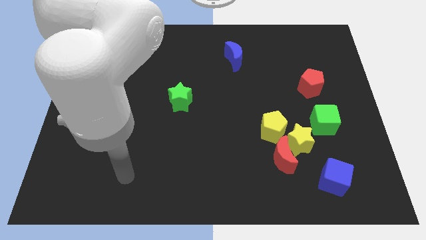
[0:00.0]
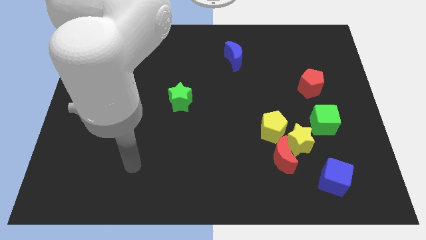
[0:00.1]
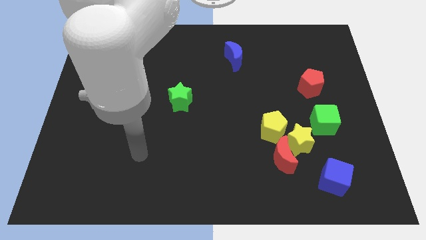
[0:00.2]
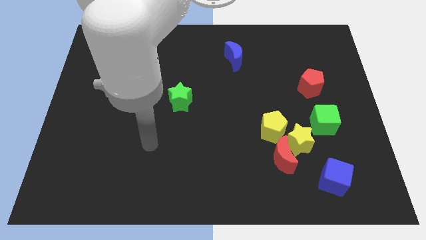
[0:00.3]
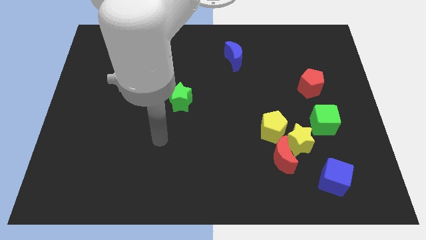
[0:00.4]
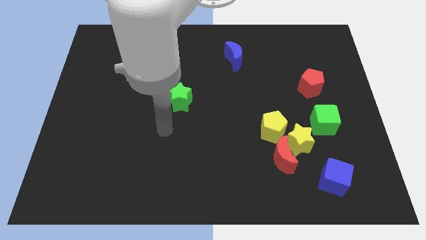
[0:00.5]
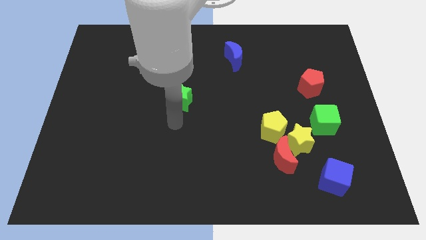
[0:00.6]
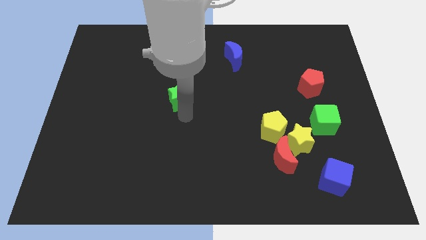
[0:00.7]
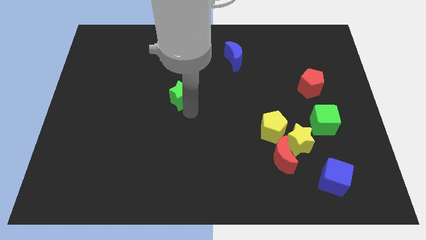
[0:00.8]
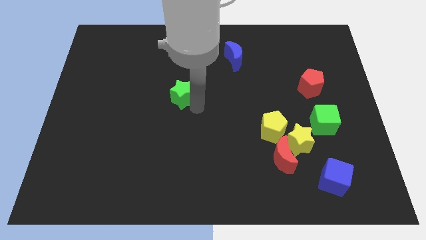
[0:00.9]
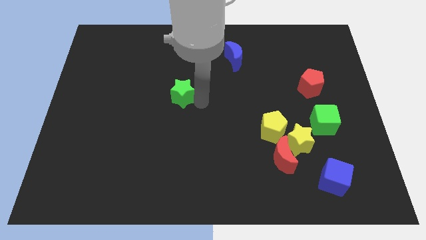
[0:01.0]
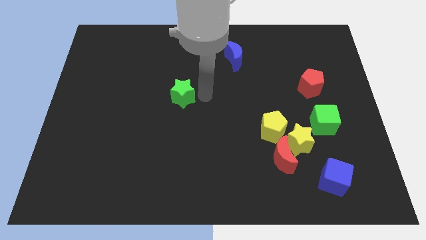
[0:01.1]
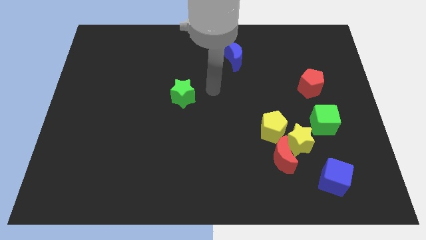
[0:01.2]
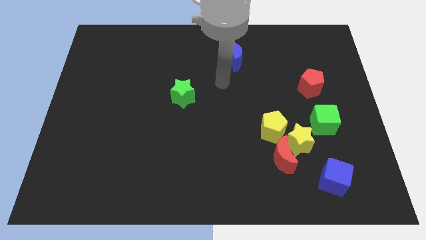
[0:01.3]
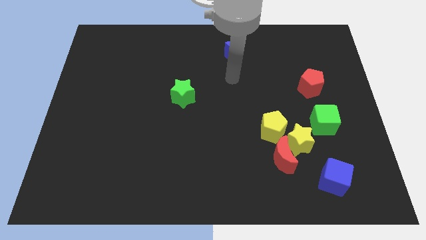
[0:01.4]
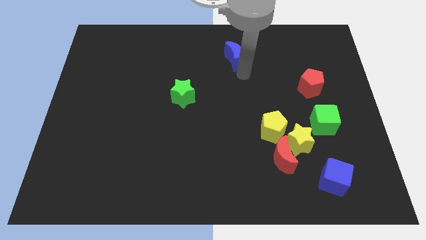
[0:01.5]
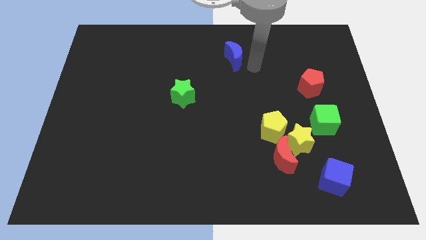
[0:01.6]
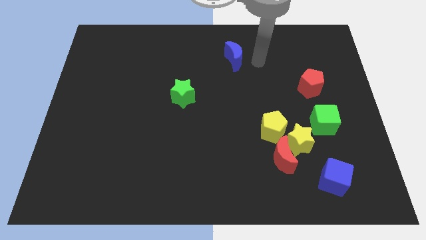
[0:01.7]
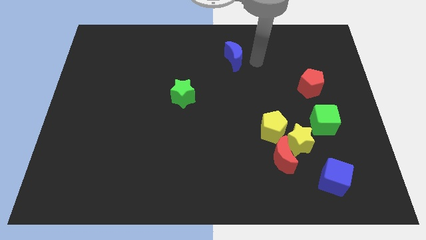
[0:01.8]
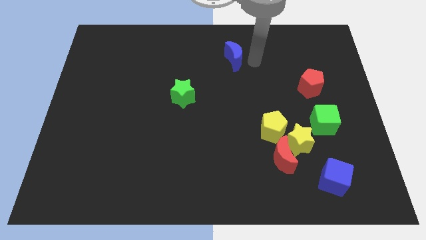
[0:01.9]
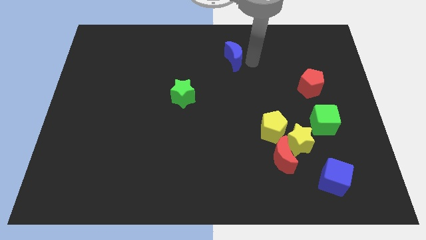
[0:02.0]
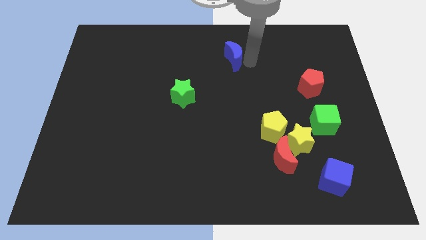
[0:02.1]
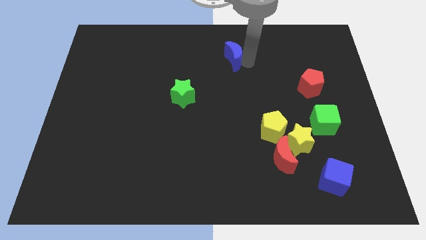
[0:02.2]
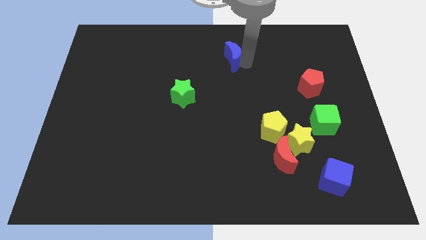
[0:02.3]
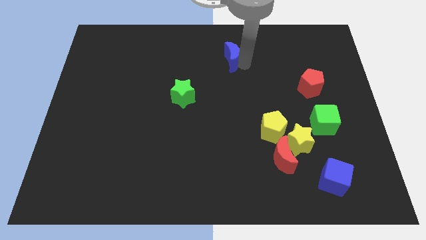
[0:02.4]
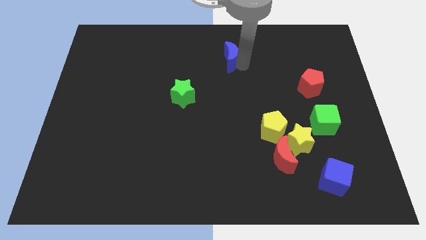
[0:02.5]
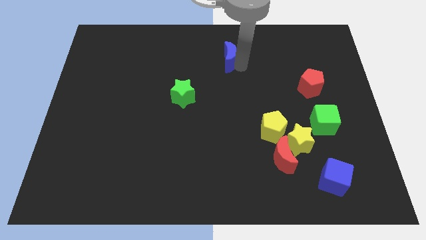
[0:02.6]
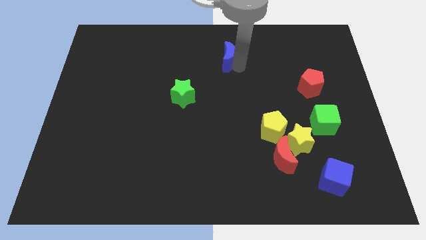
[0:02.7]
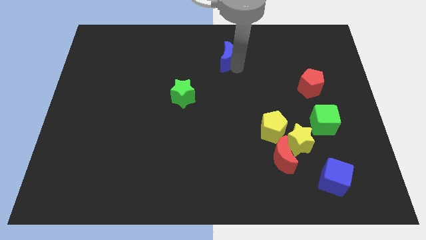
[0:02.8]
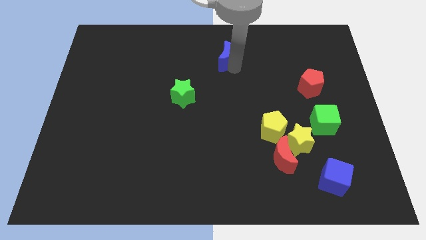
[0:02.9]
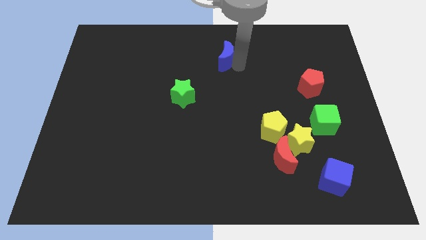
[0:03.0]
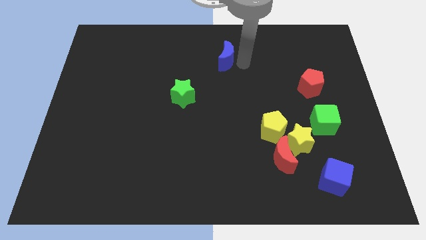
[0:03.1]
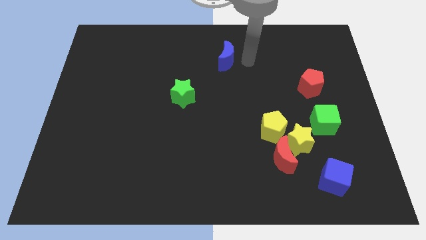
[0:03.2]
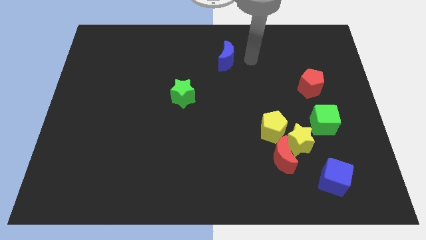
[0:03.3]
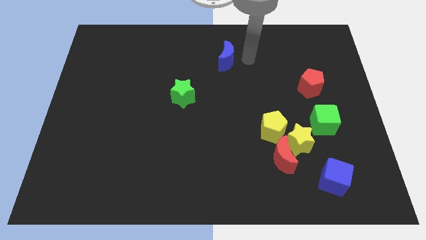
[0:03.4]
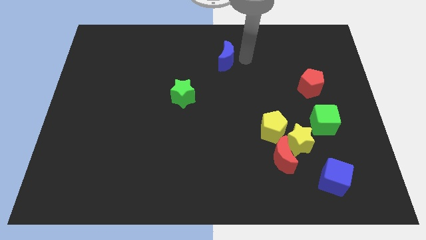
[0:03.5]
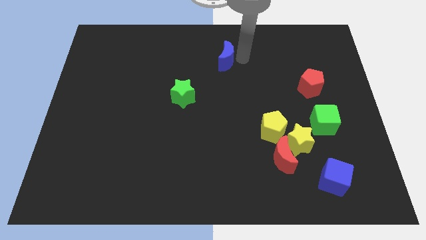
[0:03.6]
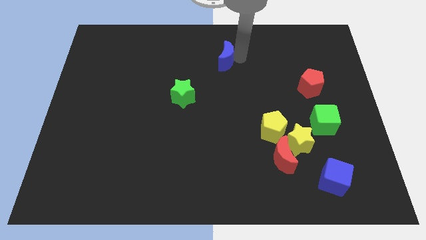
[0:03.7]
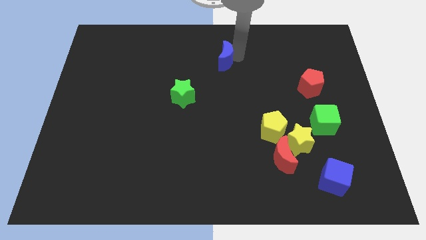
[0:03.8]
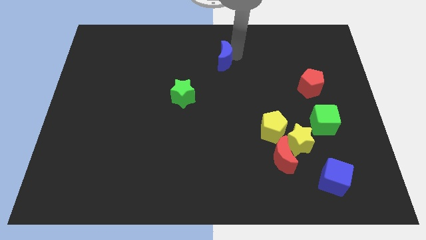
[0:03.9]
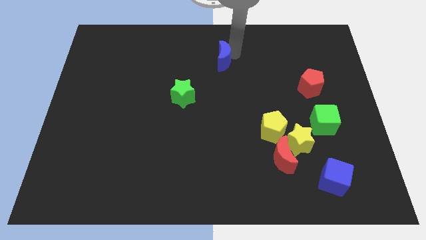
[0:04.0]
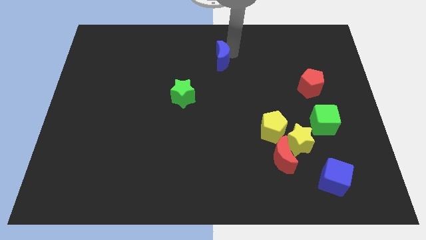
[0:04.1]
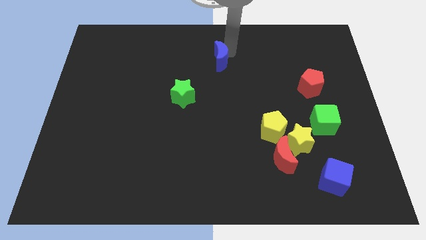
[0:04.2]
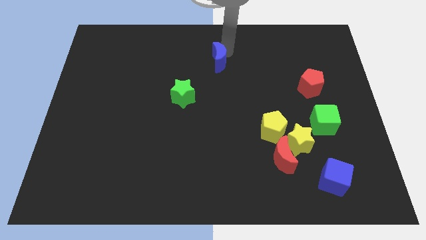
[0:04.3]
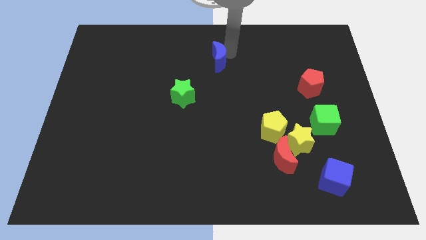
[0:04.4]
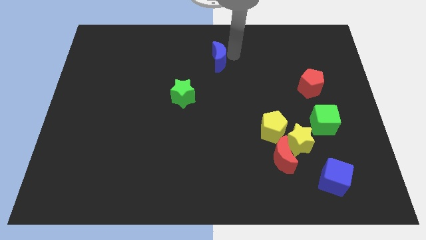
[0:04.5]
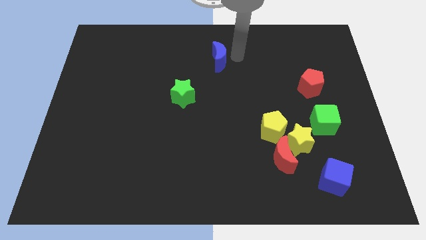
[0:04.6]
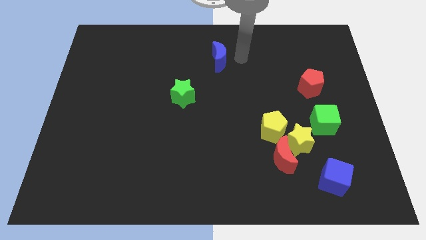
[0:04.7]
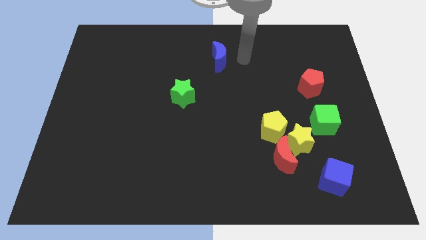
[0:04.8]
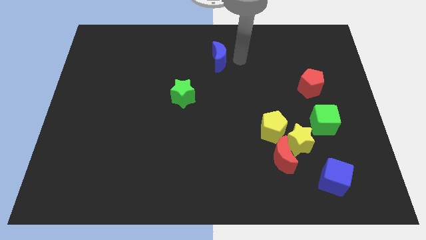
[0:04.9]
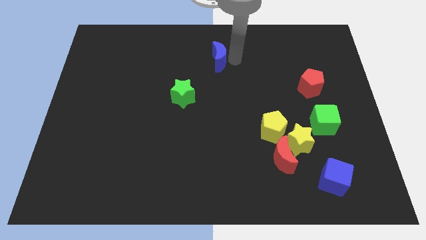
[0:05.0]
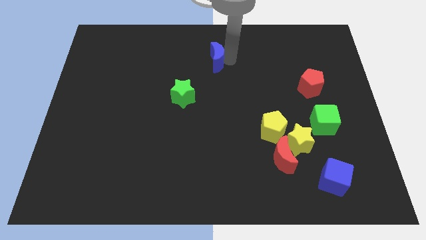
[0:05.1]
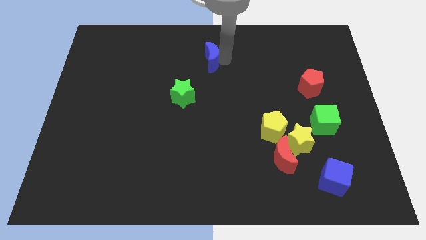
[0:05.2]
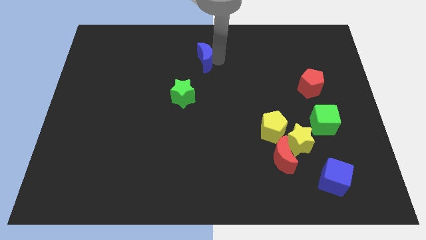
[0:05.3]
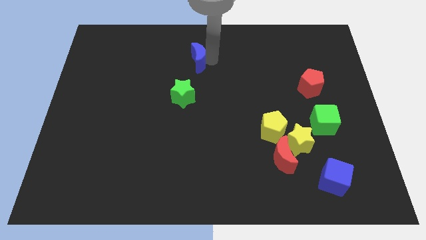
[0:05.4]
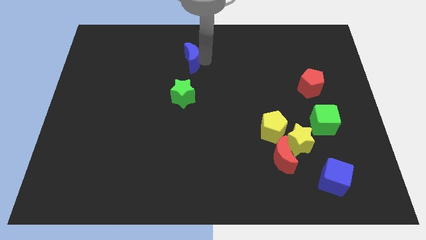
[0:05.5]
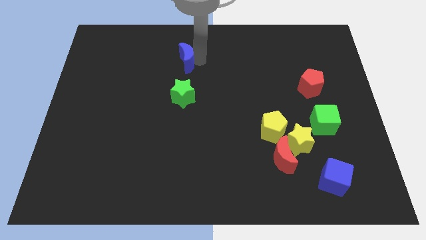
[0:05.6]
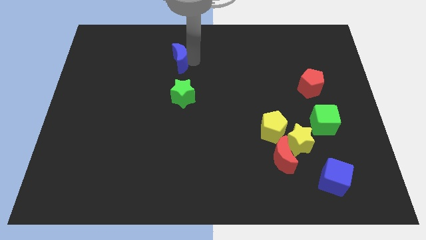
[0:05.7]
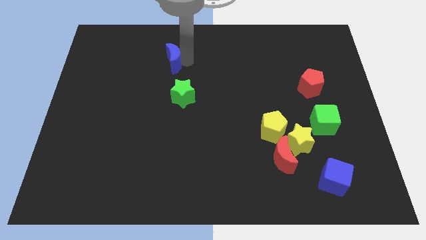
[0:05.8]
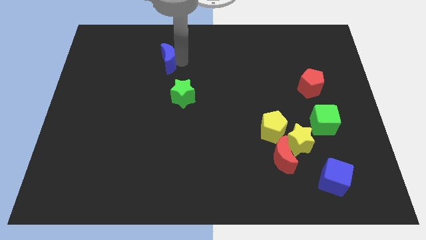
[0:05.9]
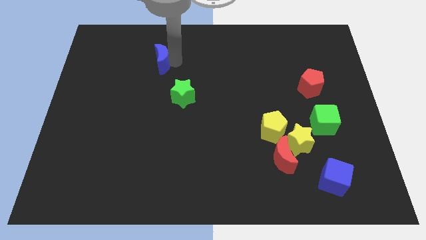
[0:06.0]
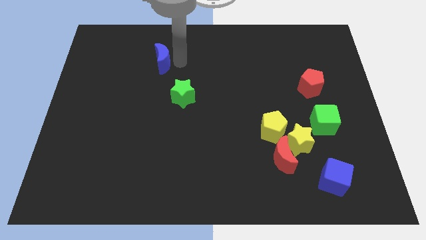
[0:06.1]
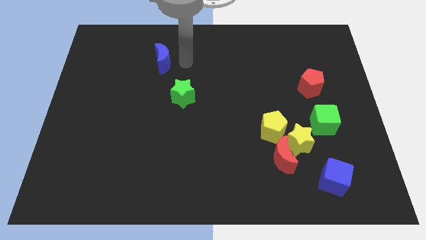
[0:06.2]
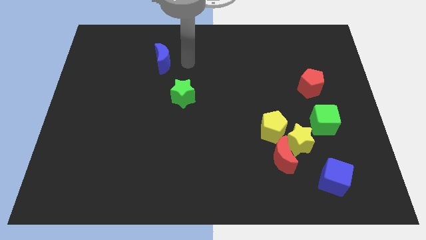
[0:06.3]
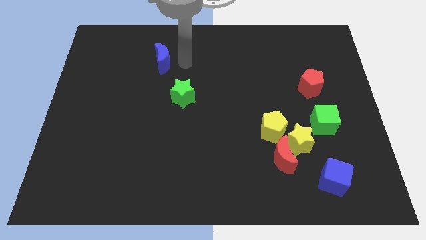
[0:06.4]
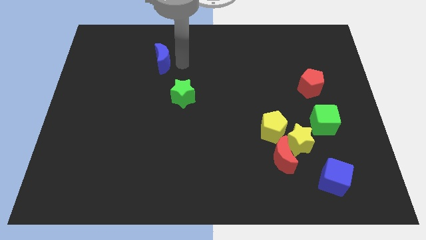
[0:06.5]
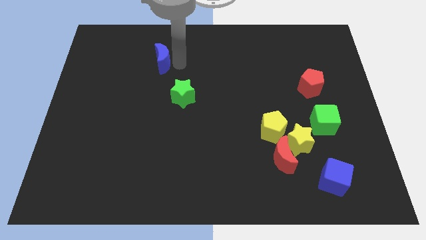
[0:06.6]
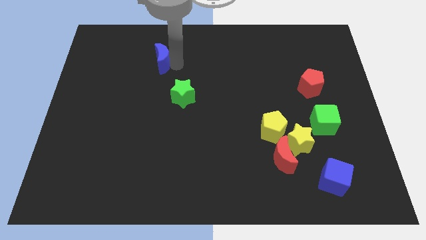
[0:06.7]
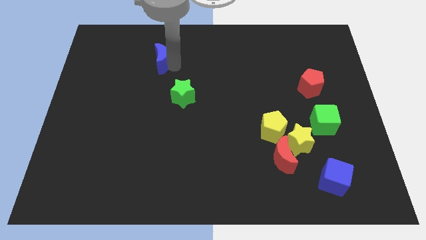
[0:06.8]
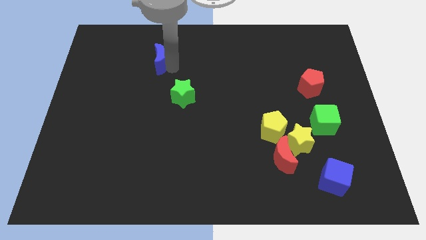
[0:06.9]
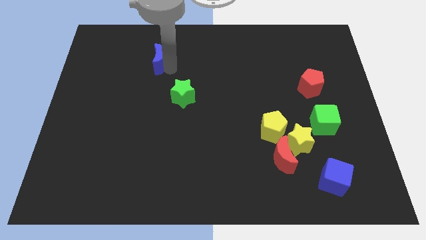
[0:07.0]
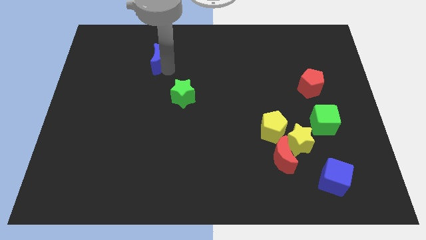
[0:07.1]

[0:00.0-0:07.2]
push the blue moon to the left

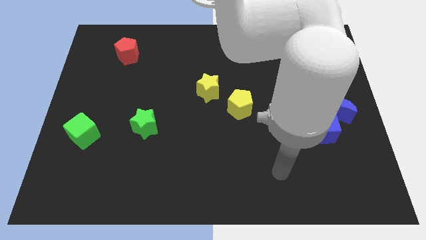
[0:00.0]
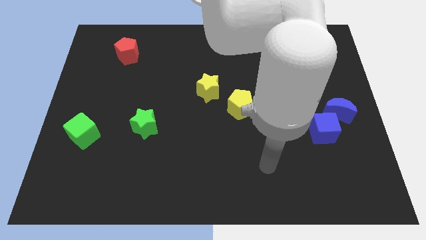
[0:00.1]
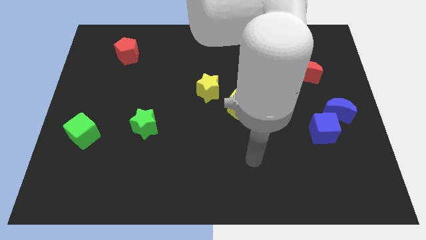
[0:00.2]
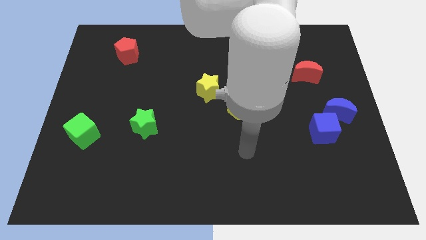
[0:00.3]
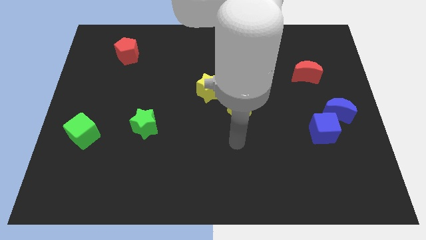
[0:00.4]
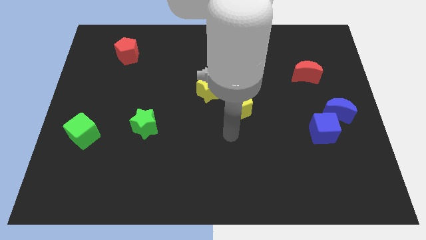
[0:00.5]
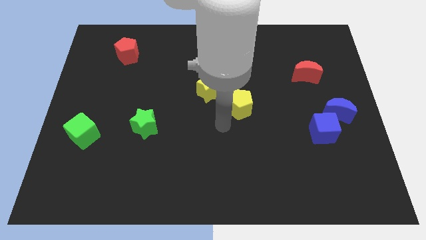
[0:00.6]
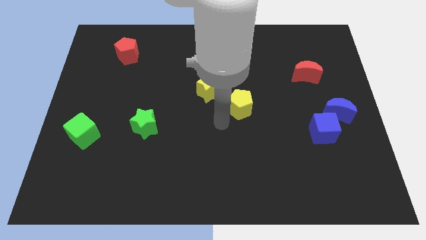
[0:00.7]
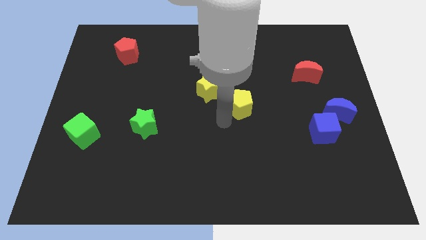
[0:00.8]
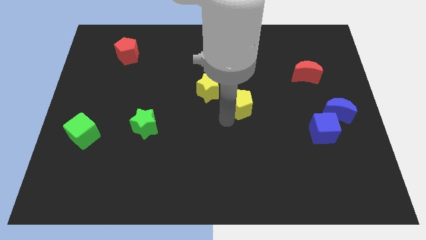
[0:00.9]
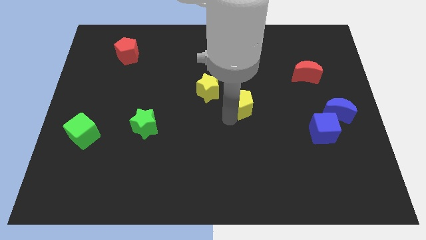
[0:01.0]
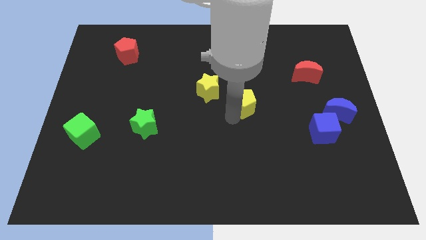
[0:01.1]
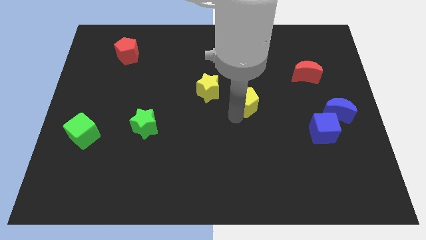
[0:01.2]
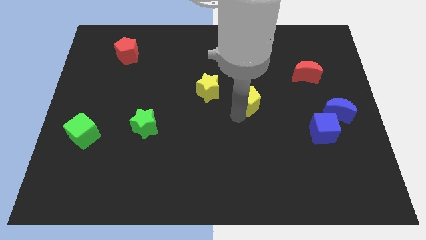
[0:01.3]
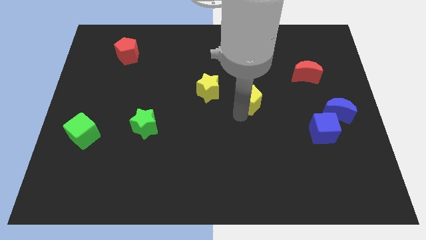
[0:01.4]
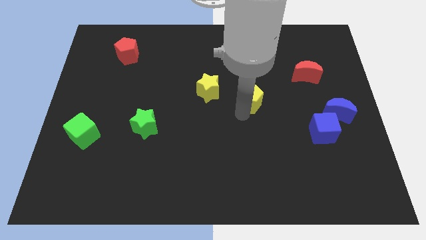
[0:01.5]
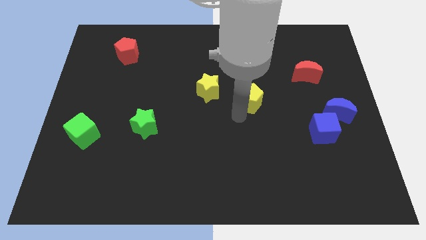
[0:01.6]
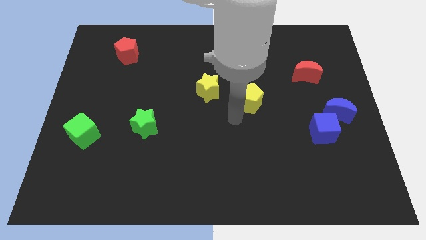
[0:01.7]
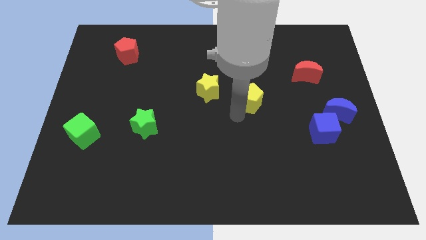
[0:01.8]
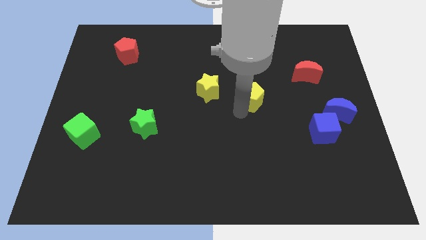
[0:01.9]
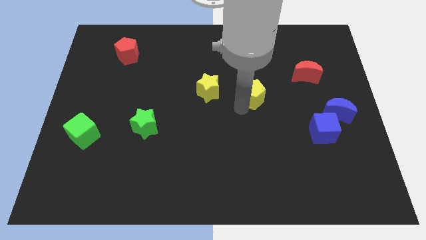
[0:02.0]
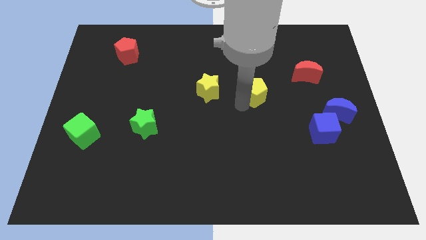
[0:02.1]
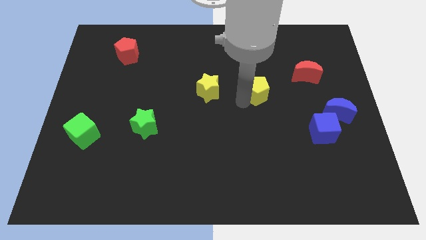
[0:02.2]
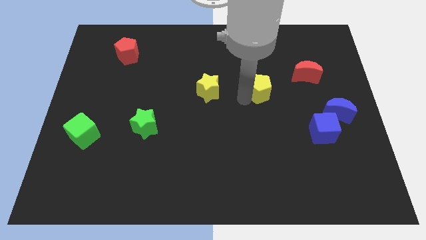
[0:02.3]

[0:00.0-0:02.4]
push the yellow pentagon upwards and right diagonally a little
